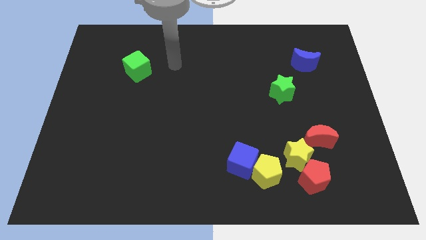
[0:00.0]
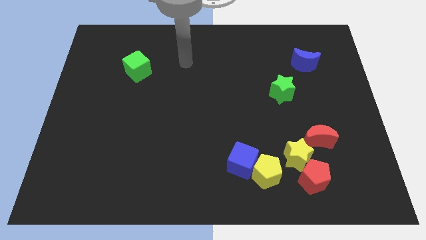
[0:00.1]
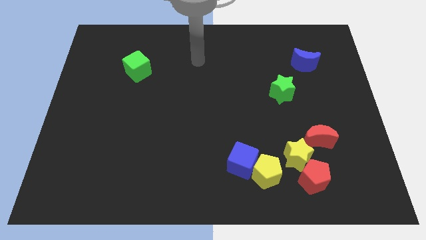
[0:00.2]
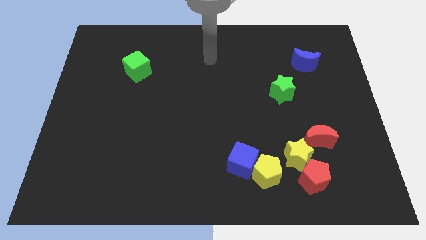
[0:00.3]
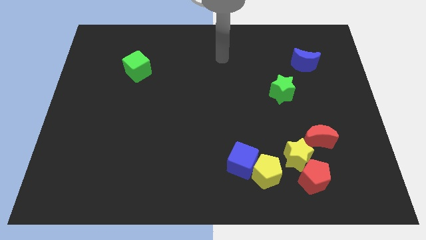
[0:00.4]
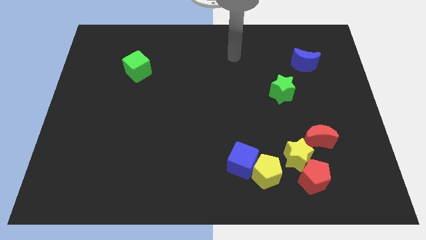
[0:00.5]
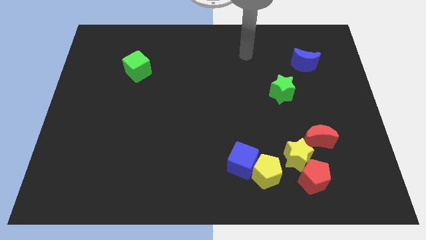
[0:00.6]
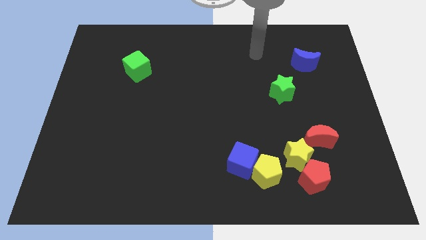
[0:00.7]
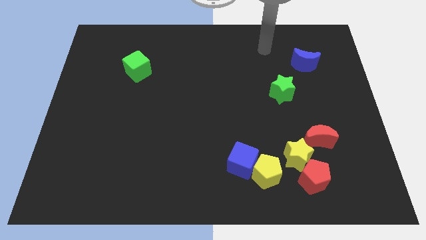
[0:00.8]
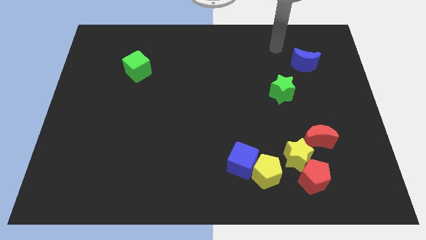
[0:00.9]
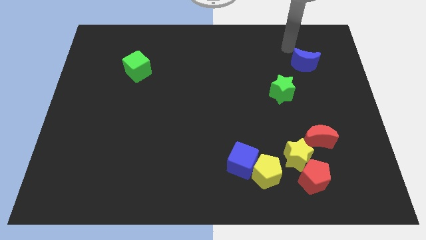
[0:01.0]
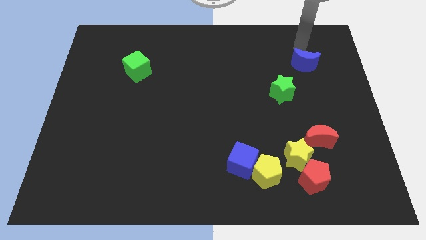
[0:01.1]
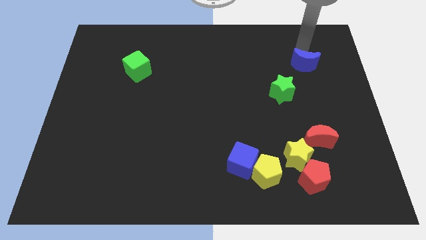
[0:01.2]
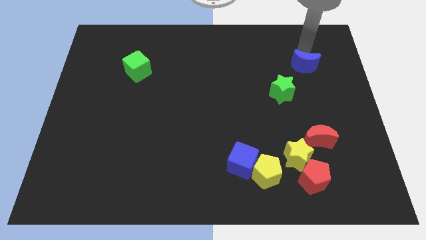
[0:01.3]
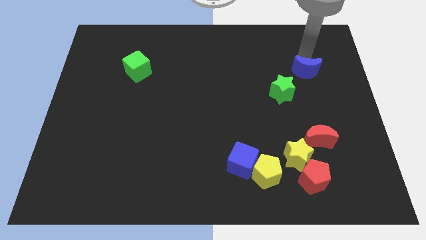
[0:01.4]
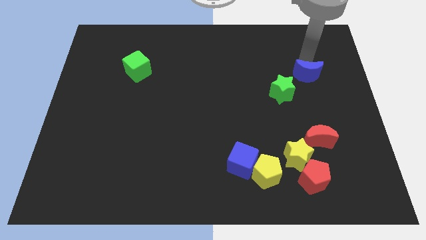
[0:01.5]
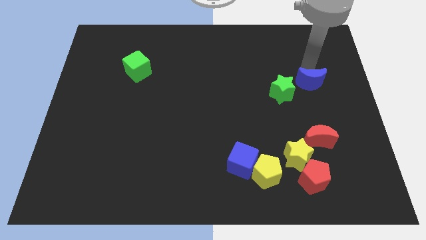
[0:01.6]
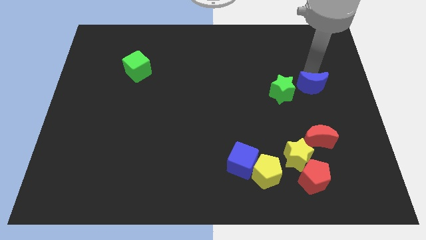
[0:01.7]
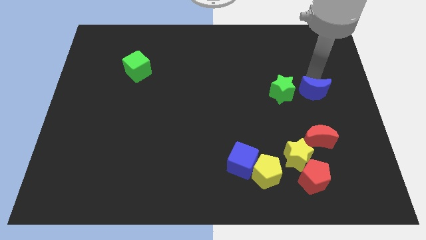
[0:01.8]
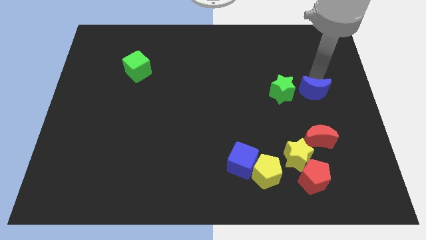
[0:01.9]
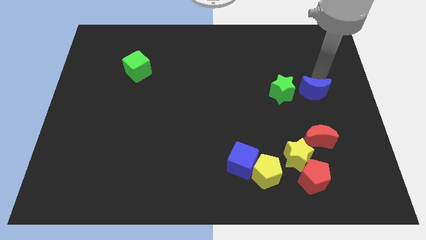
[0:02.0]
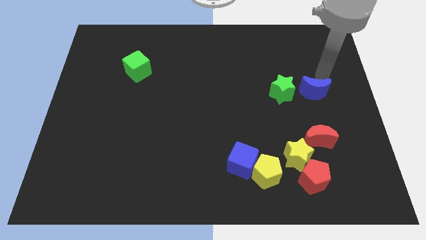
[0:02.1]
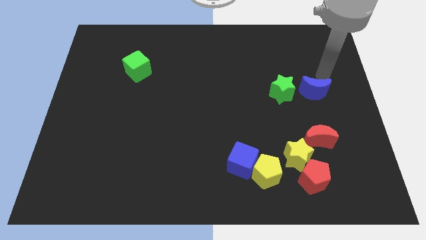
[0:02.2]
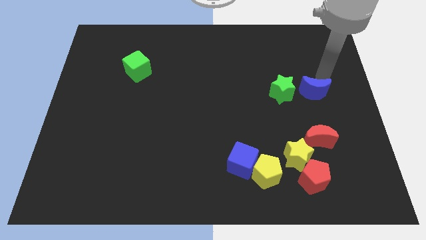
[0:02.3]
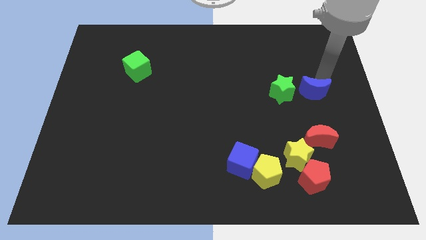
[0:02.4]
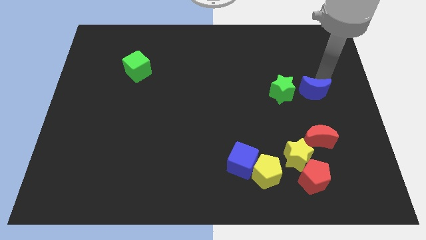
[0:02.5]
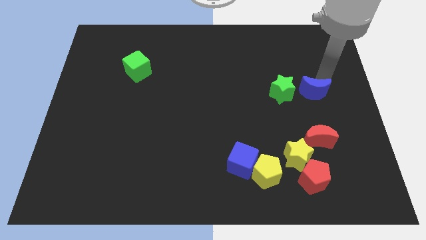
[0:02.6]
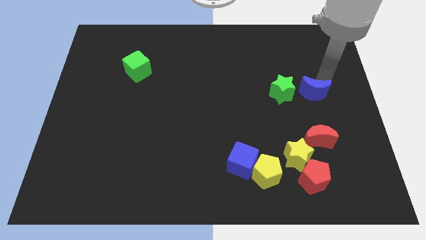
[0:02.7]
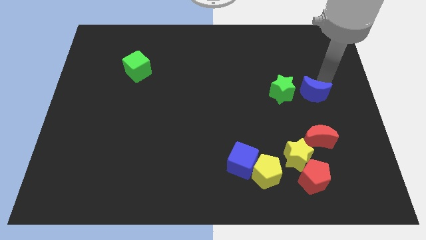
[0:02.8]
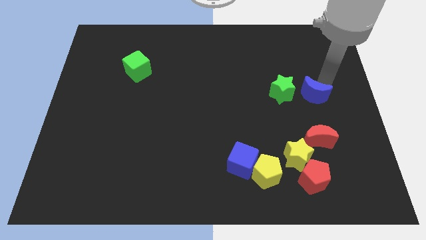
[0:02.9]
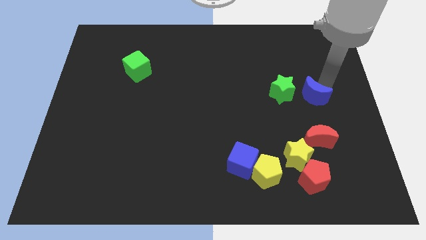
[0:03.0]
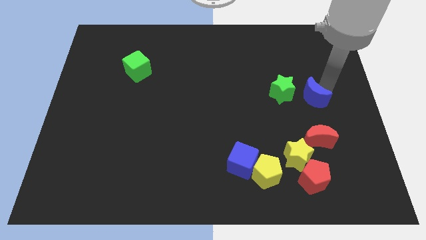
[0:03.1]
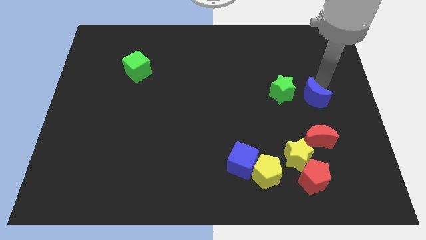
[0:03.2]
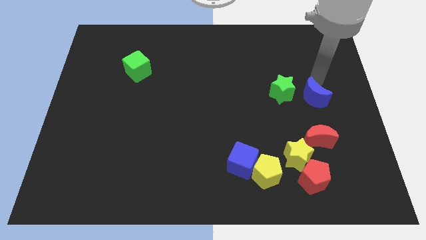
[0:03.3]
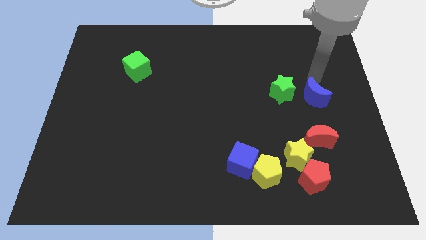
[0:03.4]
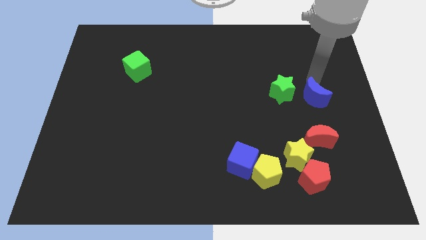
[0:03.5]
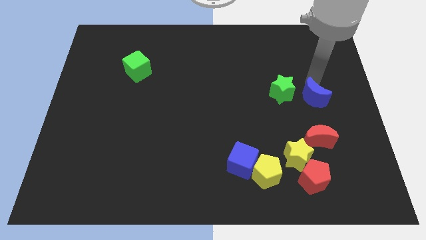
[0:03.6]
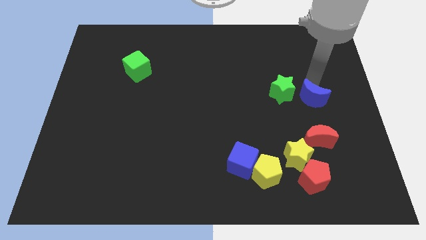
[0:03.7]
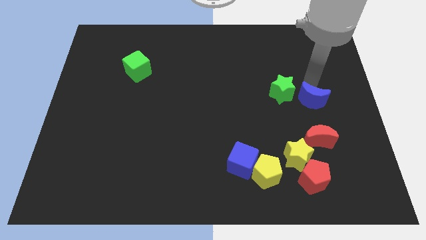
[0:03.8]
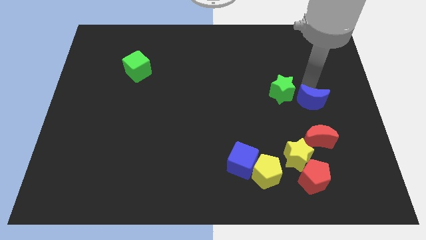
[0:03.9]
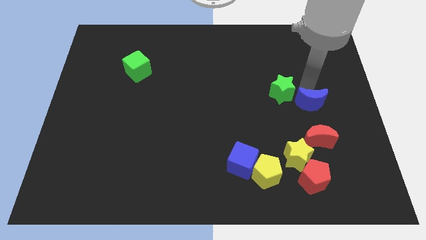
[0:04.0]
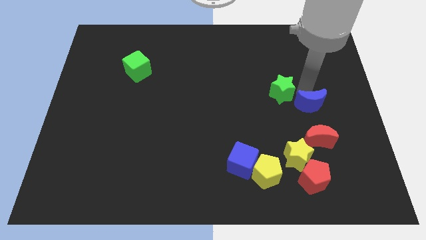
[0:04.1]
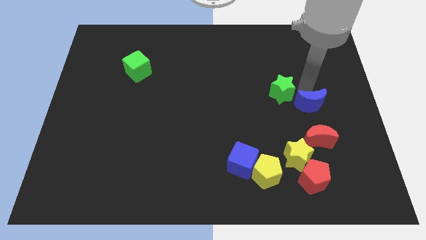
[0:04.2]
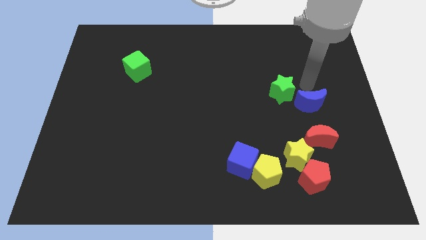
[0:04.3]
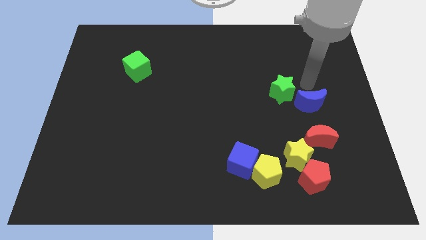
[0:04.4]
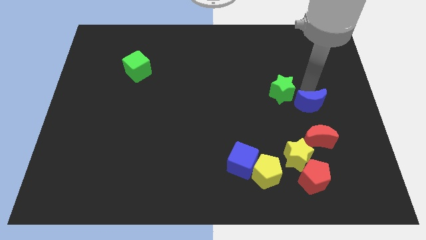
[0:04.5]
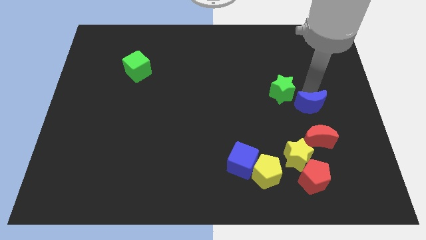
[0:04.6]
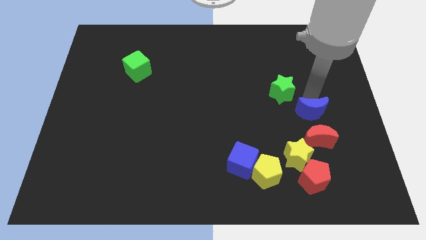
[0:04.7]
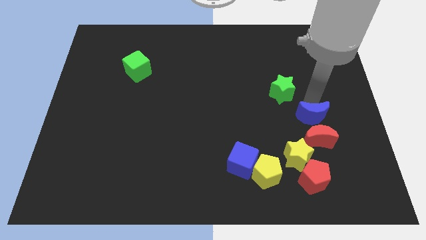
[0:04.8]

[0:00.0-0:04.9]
move the blue moon to the red moon

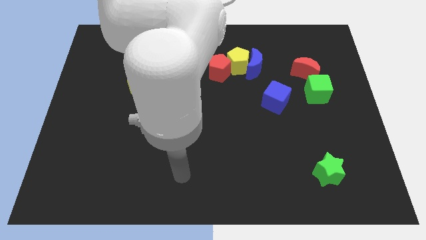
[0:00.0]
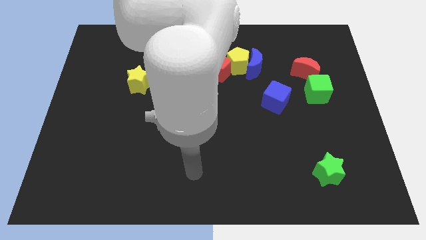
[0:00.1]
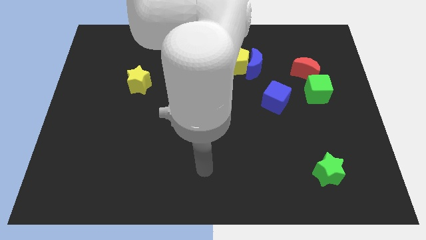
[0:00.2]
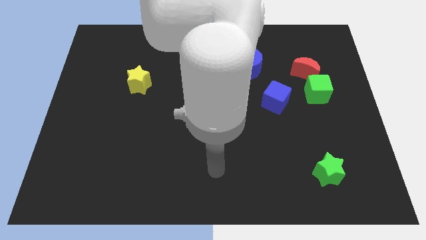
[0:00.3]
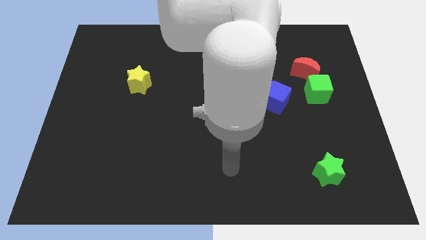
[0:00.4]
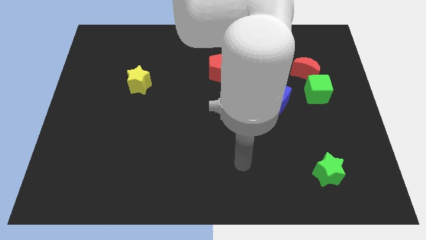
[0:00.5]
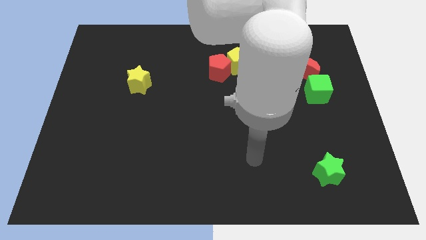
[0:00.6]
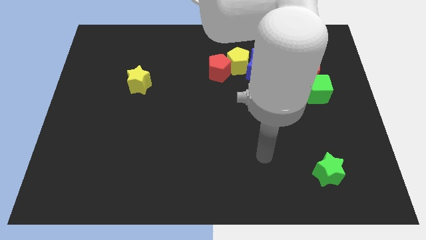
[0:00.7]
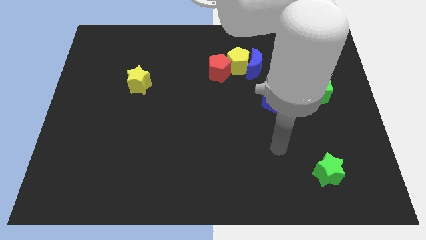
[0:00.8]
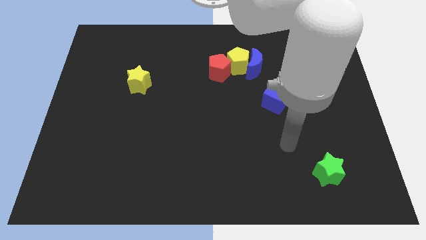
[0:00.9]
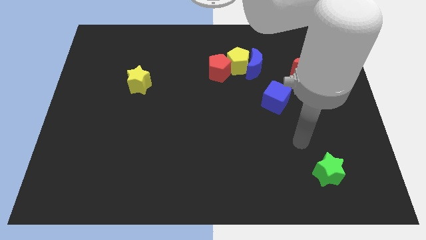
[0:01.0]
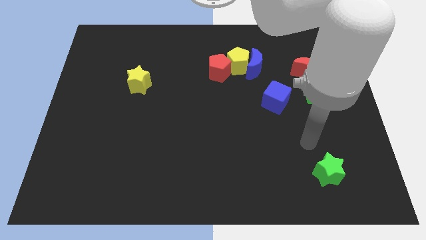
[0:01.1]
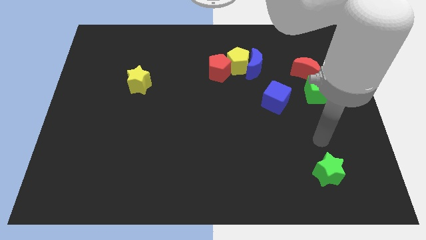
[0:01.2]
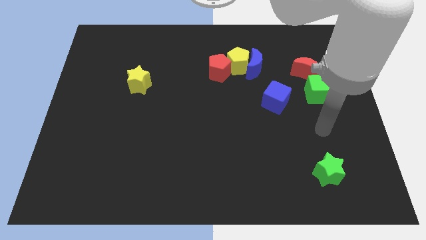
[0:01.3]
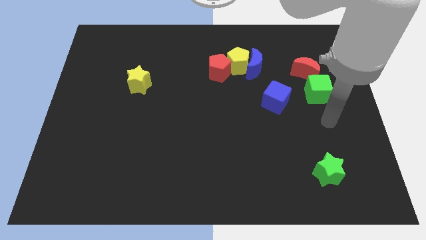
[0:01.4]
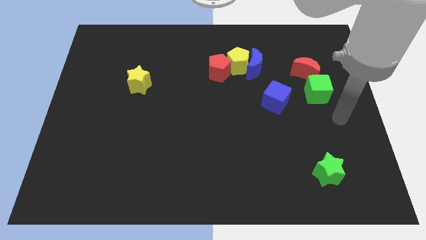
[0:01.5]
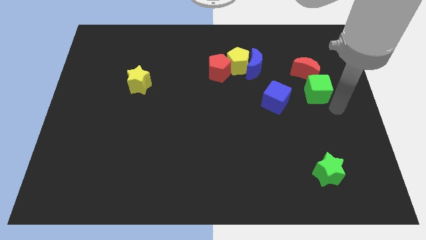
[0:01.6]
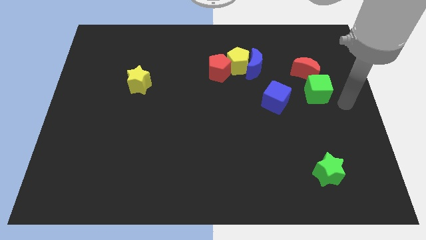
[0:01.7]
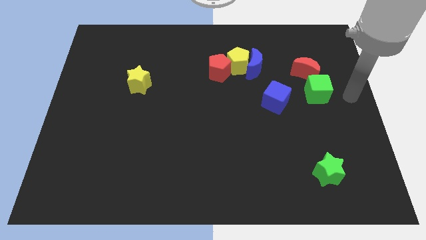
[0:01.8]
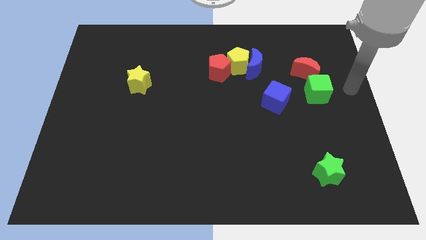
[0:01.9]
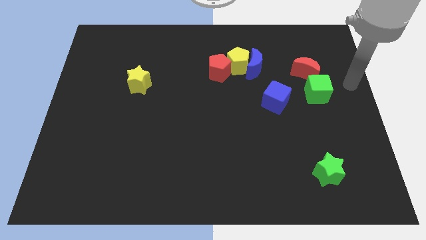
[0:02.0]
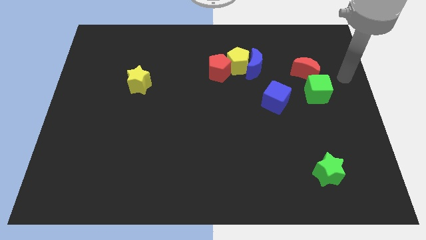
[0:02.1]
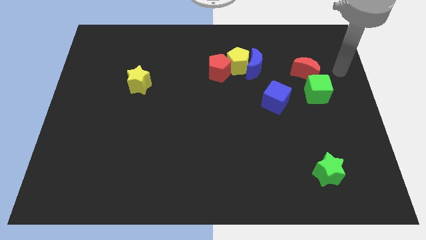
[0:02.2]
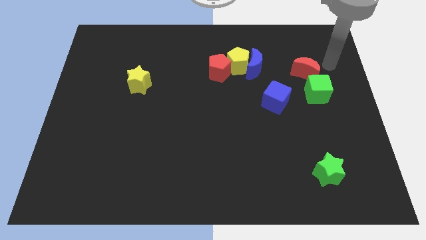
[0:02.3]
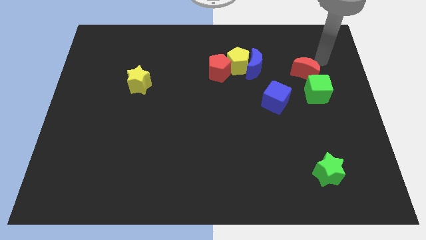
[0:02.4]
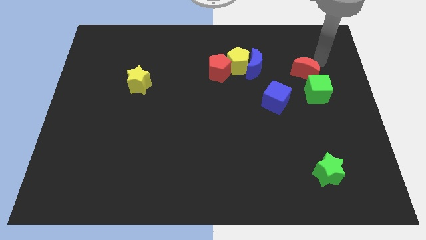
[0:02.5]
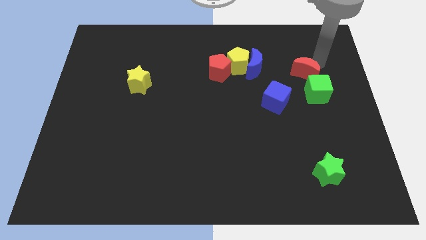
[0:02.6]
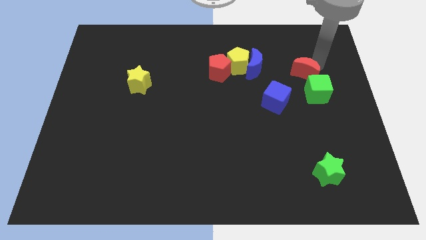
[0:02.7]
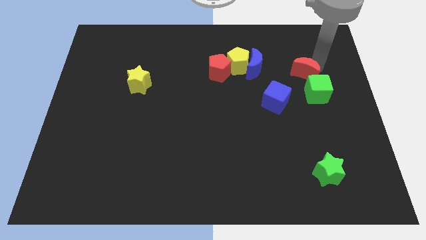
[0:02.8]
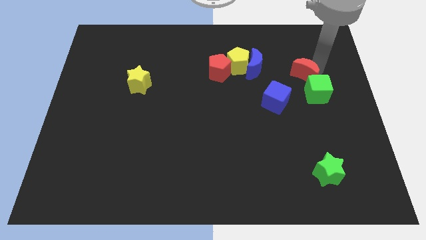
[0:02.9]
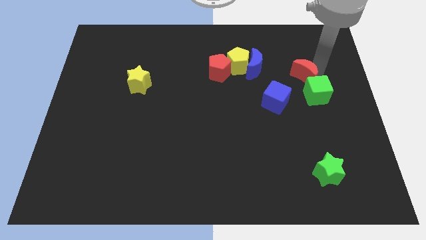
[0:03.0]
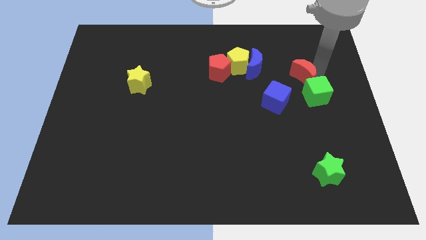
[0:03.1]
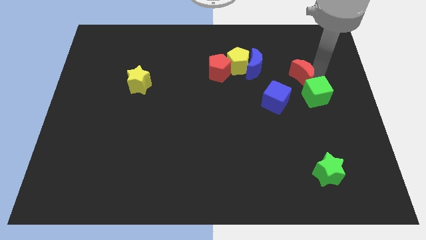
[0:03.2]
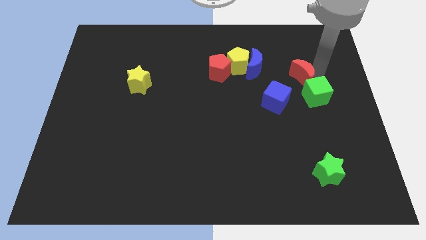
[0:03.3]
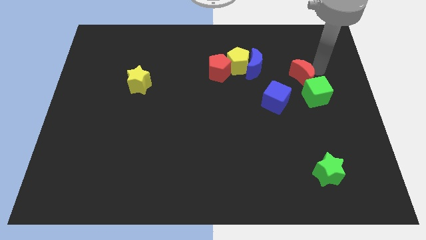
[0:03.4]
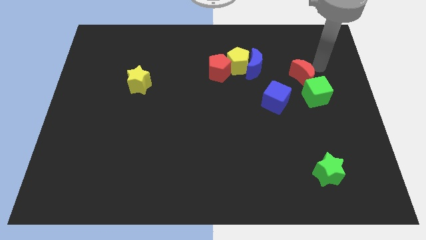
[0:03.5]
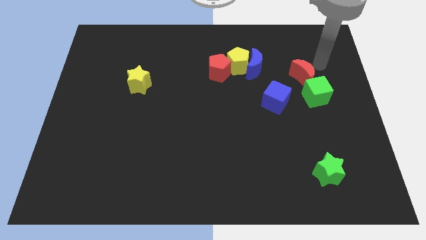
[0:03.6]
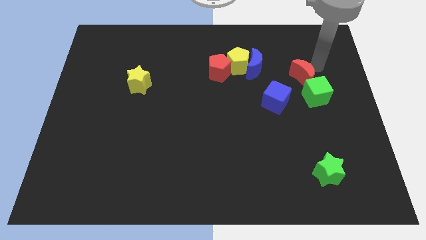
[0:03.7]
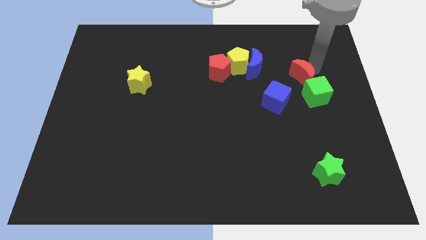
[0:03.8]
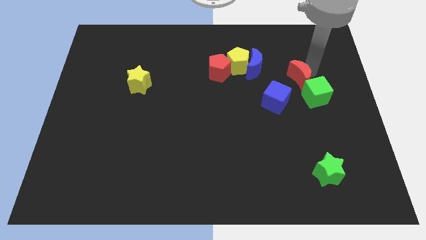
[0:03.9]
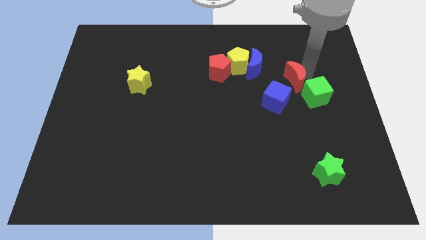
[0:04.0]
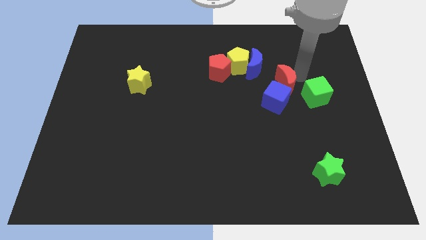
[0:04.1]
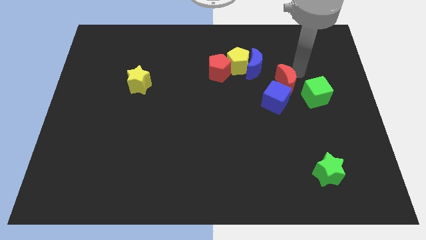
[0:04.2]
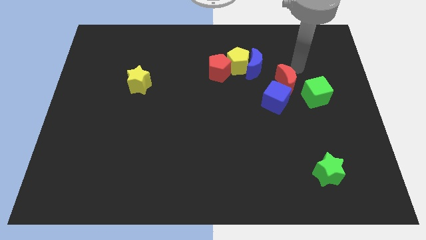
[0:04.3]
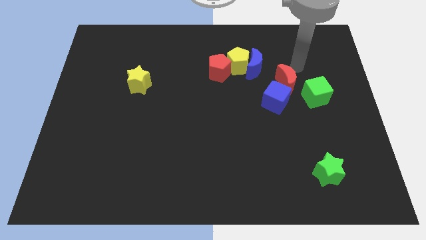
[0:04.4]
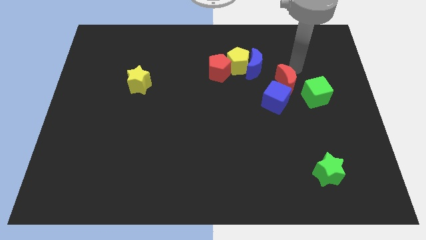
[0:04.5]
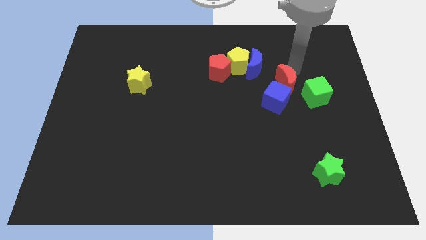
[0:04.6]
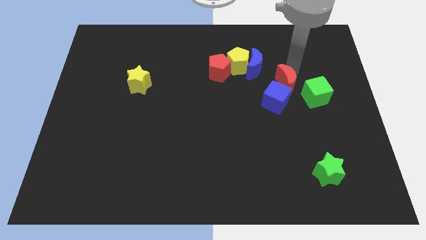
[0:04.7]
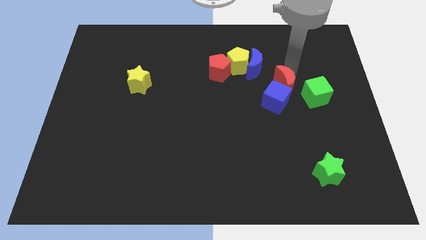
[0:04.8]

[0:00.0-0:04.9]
move the red moon next to the blue cube
